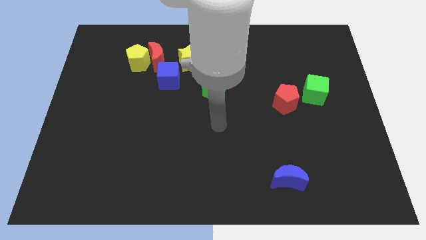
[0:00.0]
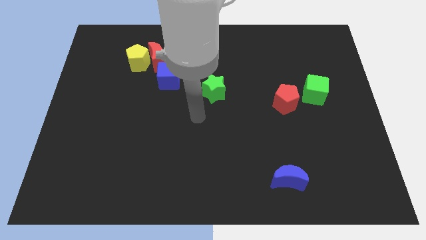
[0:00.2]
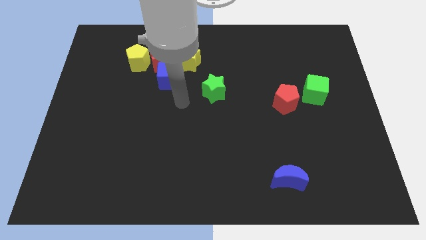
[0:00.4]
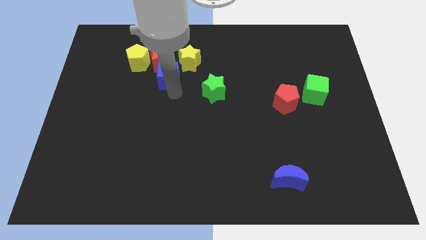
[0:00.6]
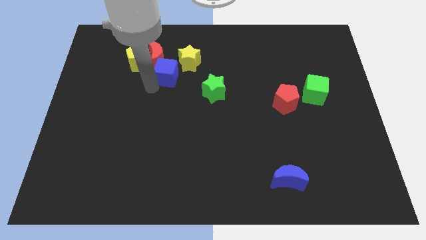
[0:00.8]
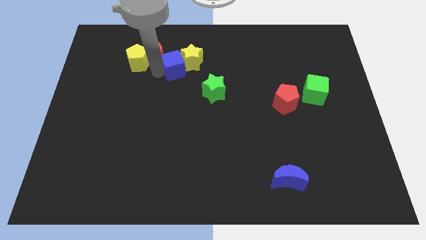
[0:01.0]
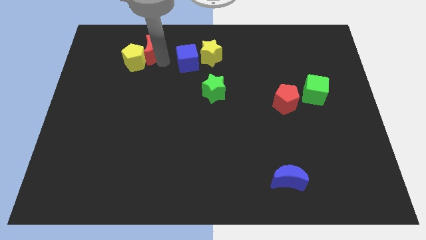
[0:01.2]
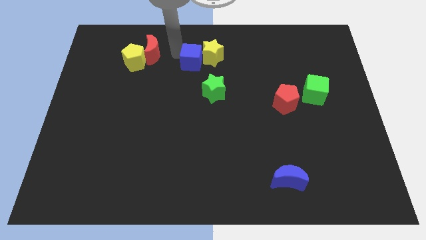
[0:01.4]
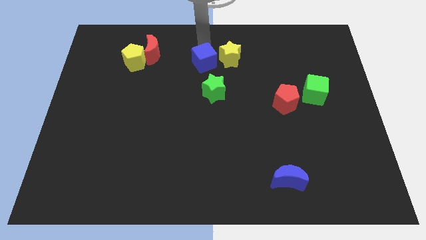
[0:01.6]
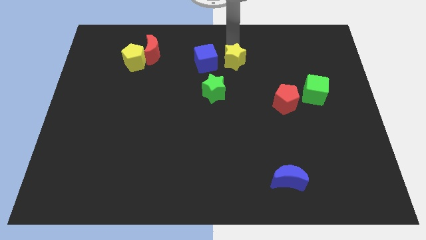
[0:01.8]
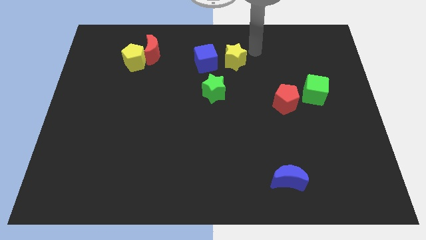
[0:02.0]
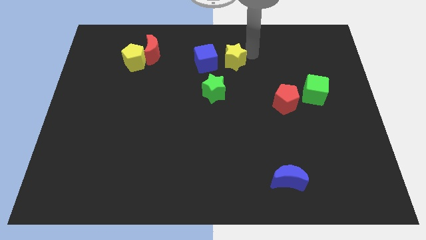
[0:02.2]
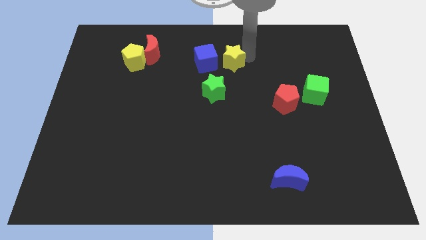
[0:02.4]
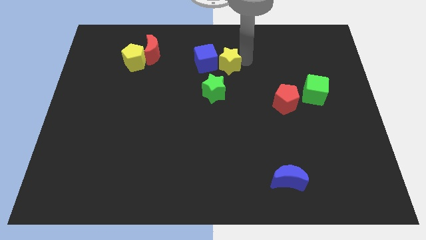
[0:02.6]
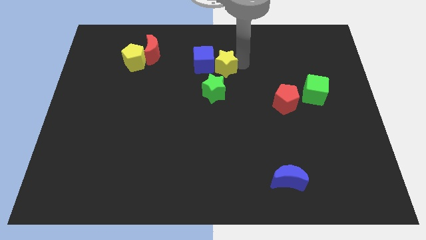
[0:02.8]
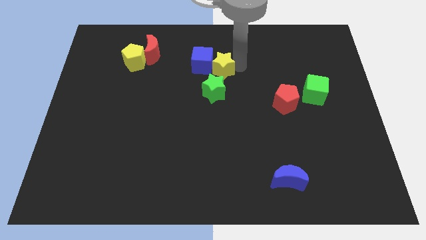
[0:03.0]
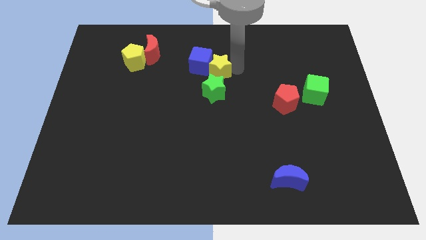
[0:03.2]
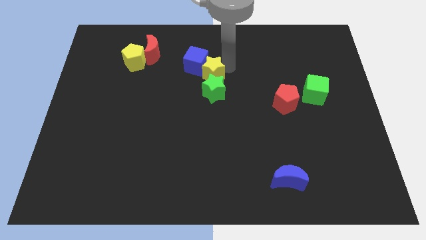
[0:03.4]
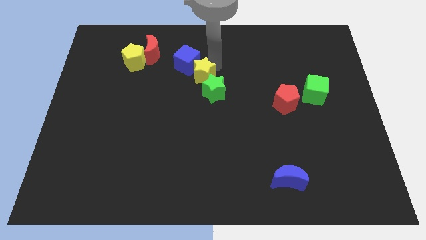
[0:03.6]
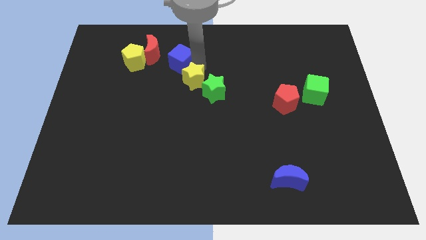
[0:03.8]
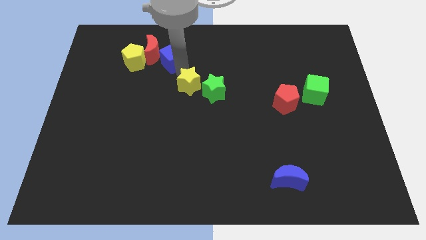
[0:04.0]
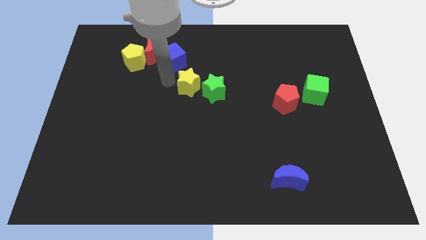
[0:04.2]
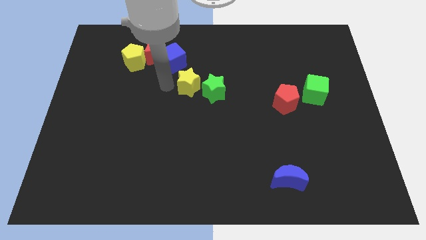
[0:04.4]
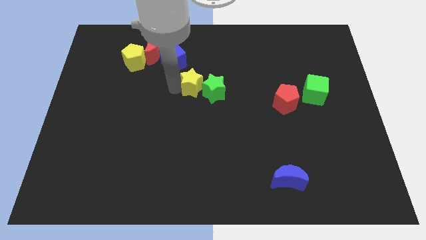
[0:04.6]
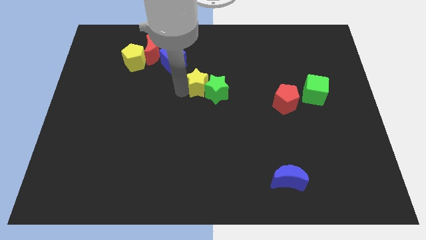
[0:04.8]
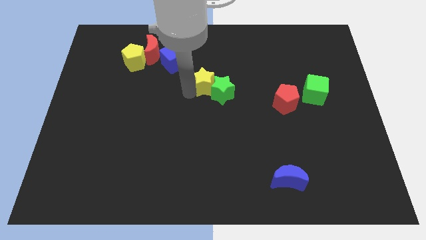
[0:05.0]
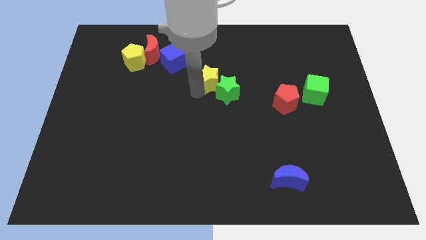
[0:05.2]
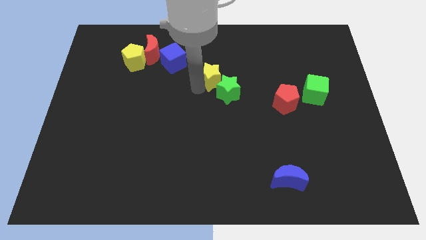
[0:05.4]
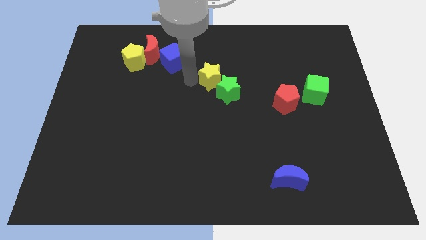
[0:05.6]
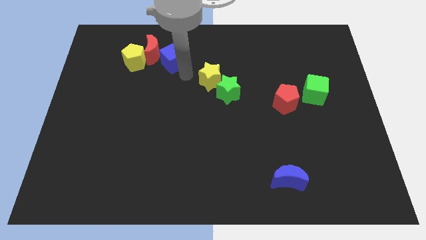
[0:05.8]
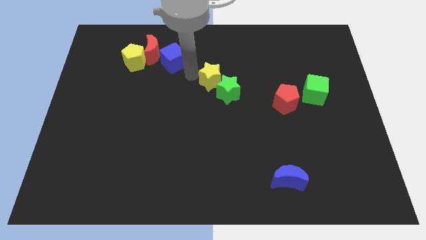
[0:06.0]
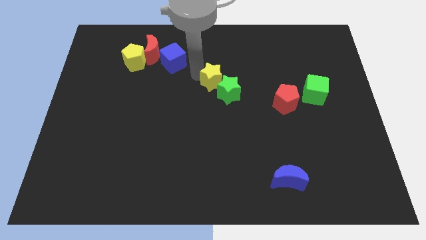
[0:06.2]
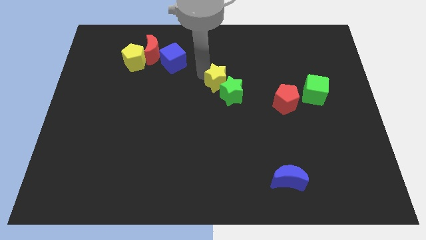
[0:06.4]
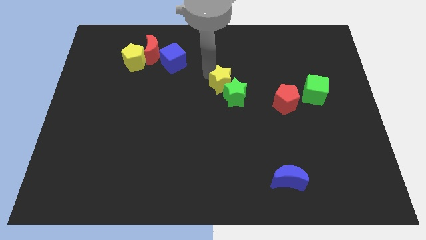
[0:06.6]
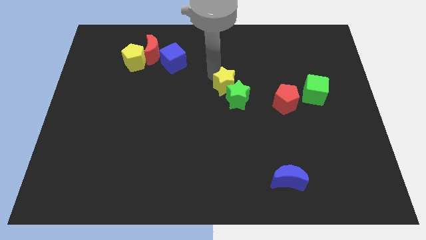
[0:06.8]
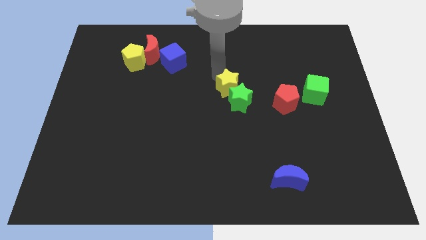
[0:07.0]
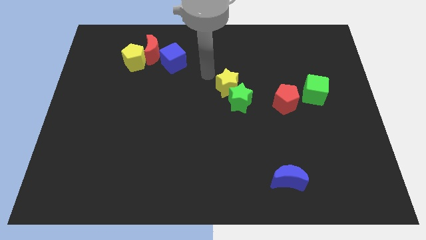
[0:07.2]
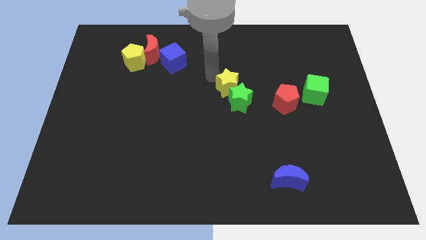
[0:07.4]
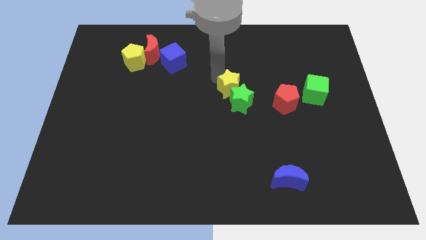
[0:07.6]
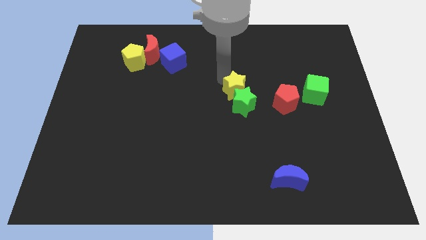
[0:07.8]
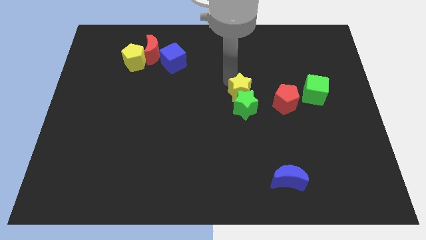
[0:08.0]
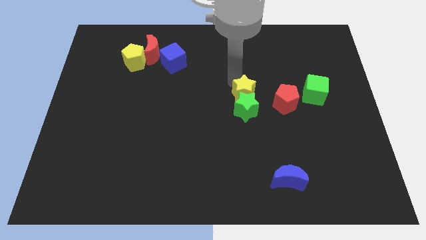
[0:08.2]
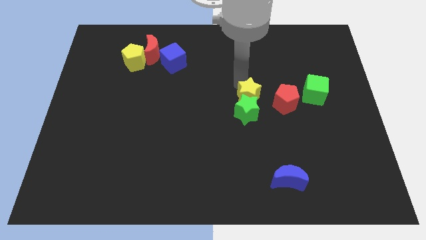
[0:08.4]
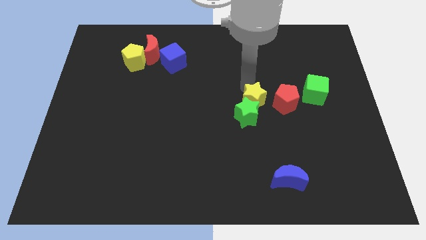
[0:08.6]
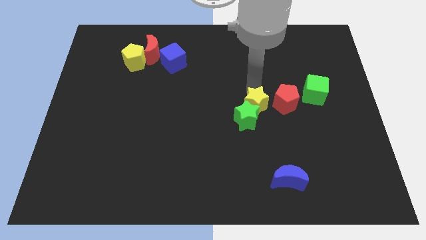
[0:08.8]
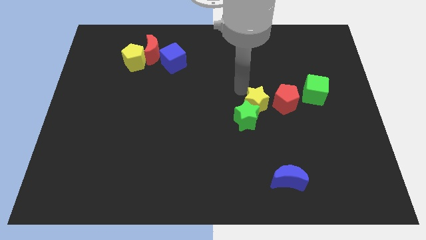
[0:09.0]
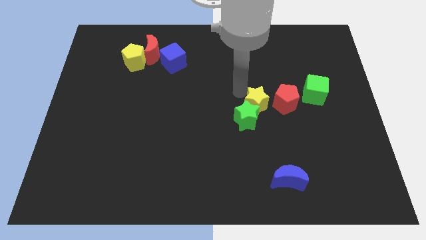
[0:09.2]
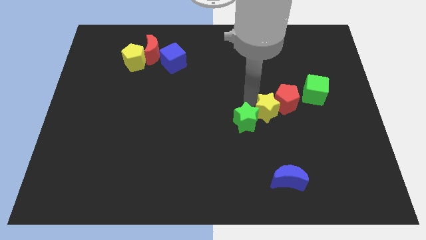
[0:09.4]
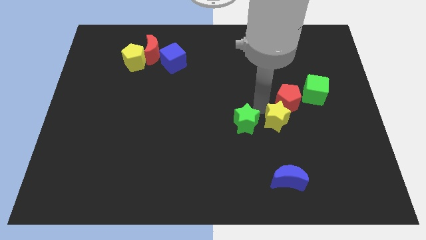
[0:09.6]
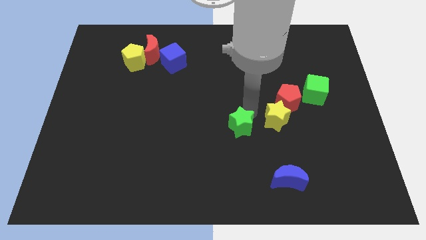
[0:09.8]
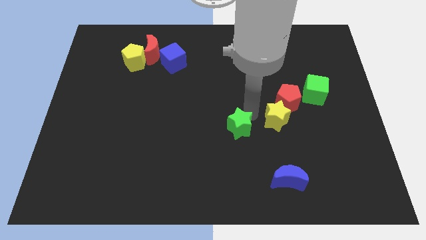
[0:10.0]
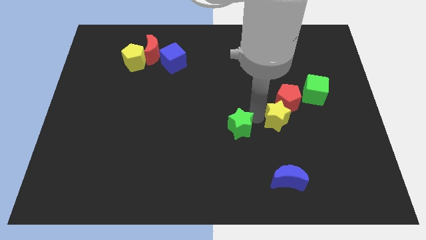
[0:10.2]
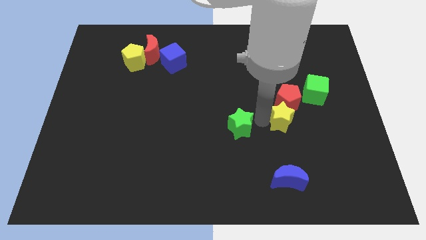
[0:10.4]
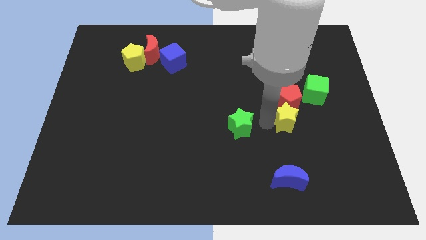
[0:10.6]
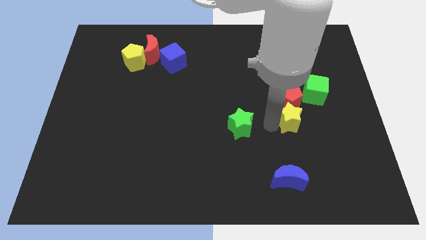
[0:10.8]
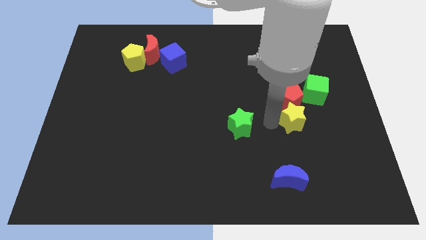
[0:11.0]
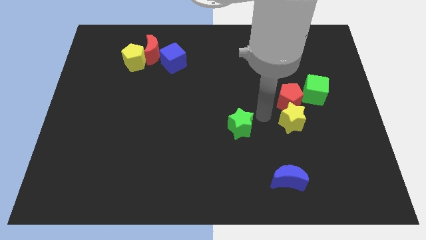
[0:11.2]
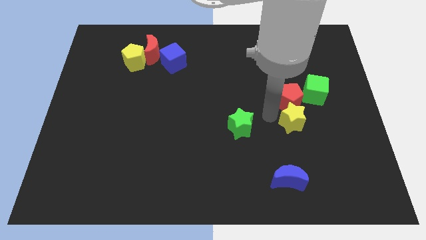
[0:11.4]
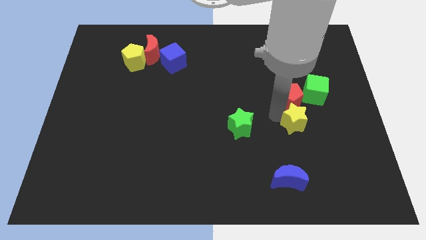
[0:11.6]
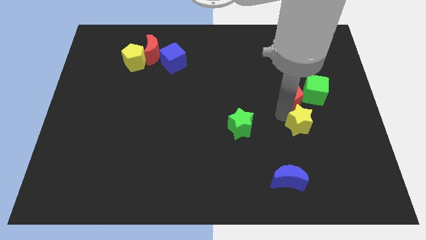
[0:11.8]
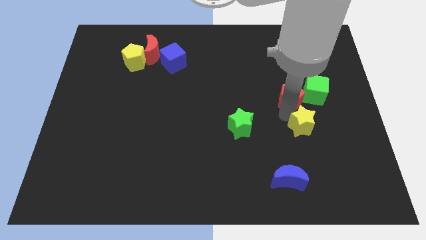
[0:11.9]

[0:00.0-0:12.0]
push the yellow star to the bottom of the green cube
